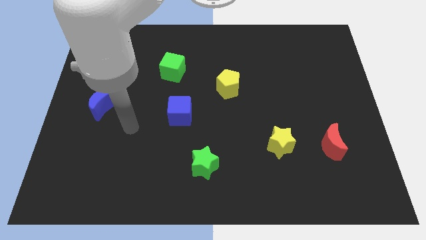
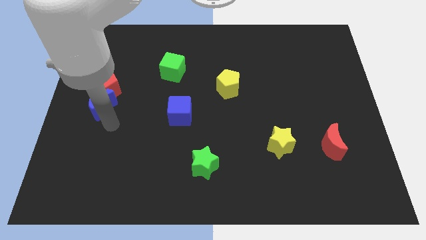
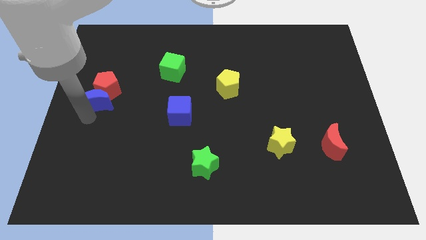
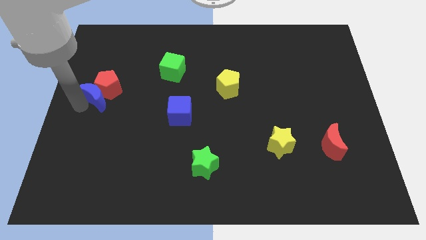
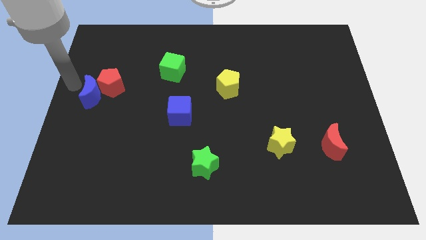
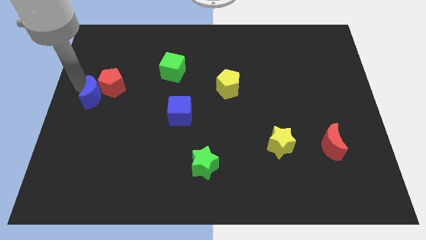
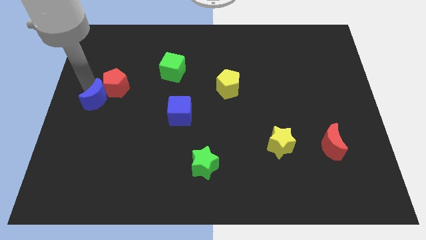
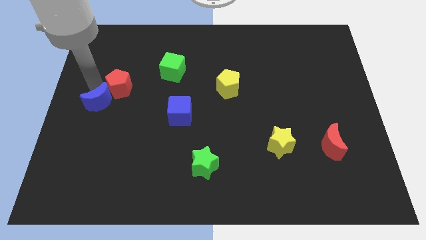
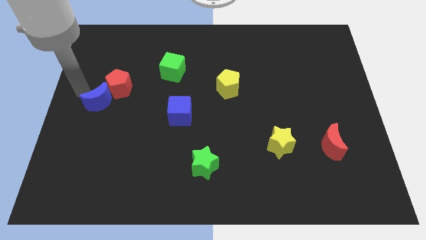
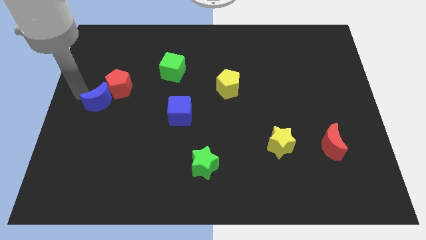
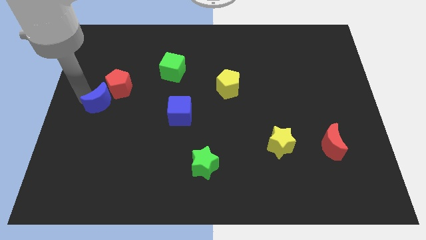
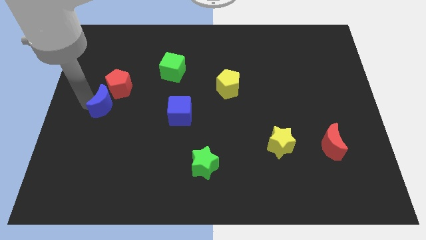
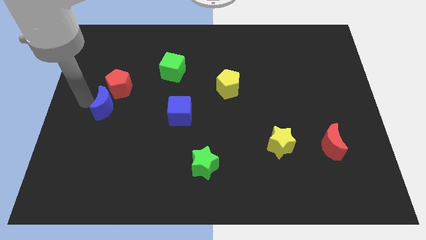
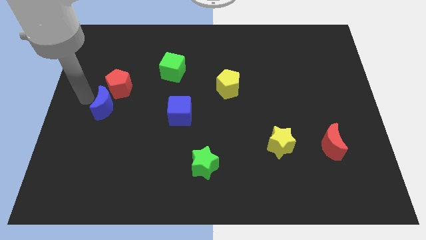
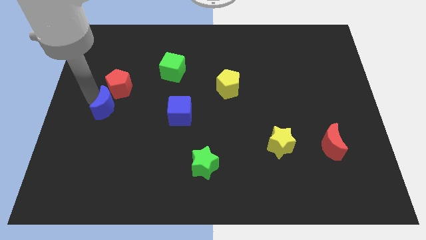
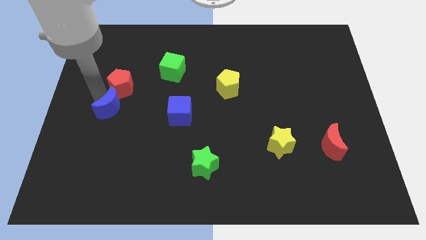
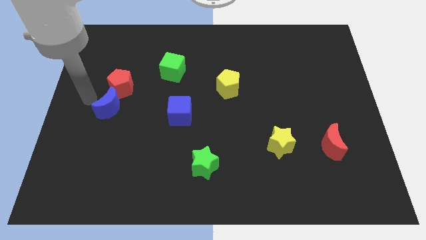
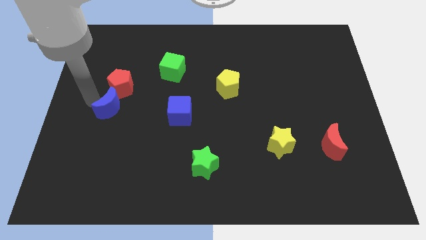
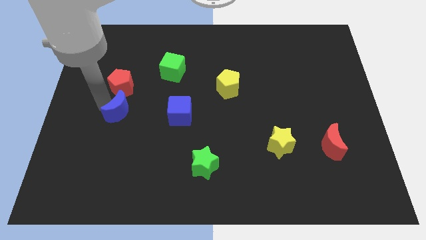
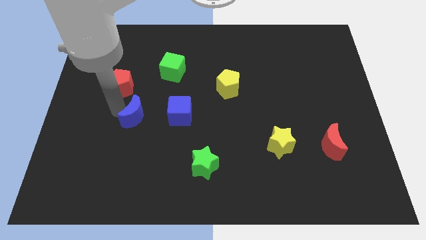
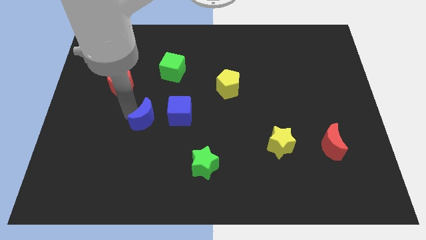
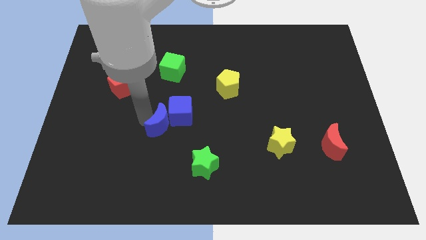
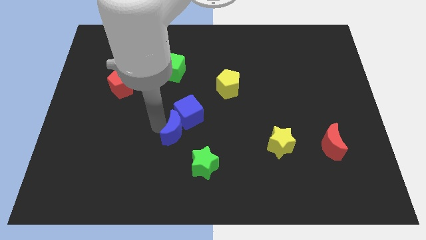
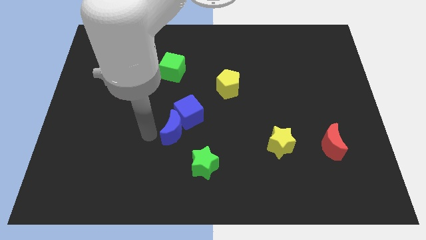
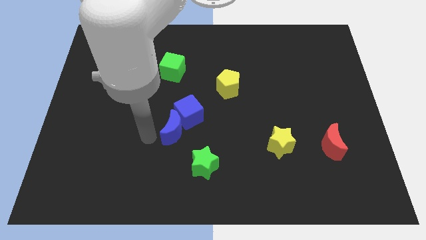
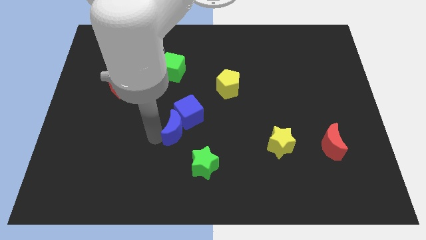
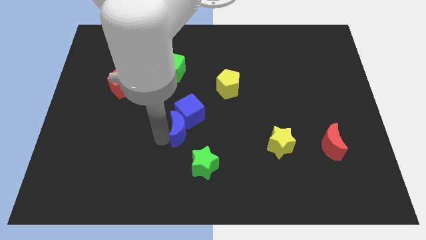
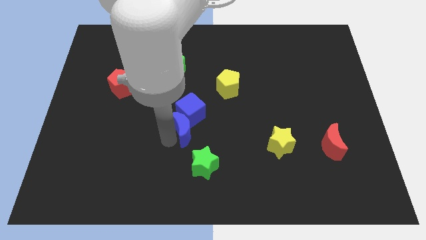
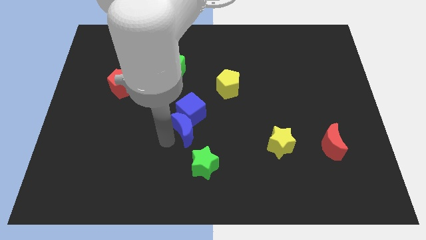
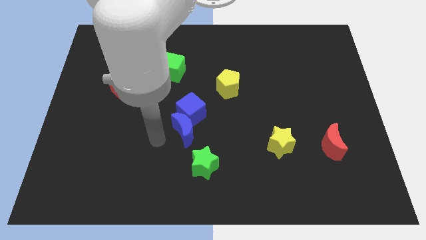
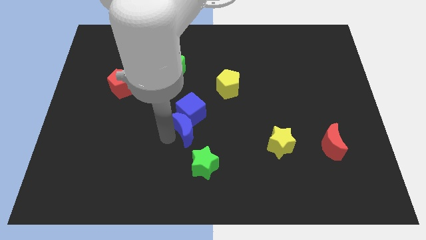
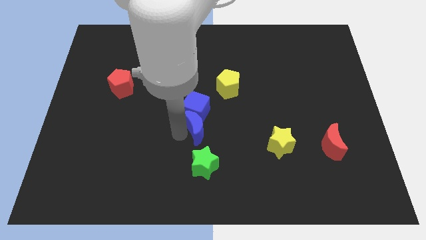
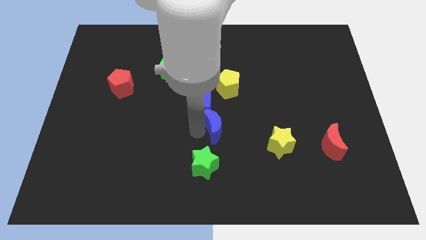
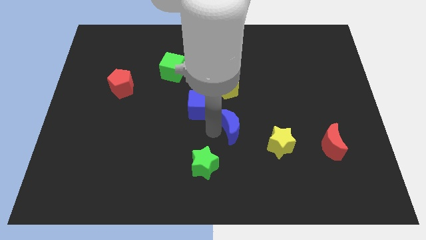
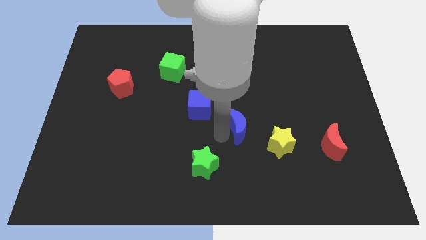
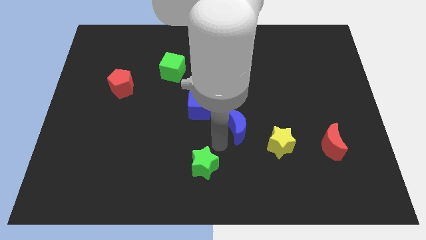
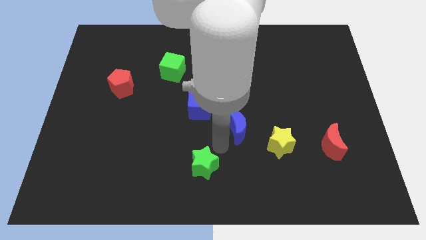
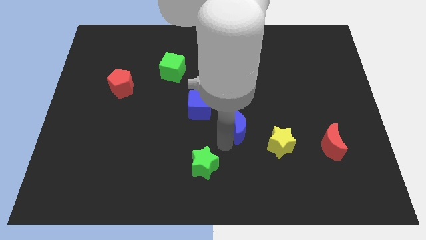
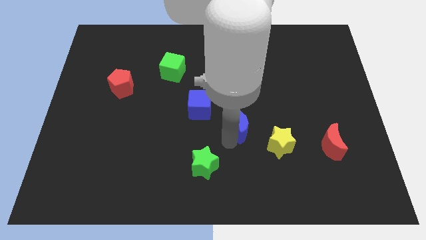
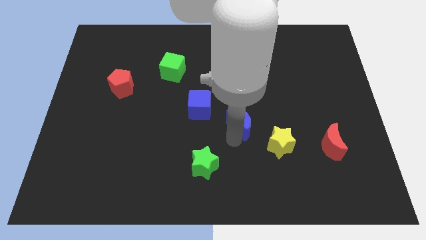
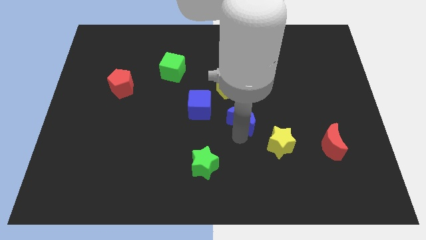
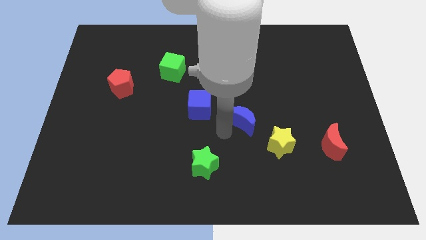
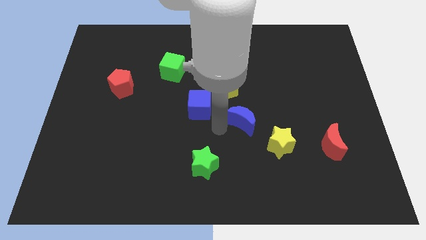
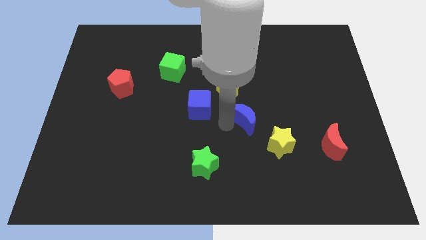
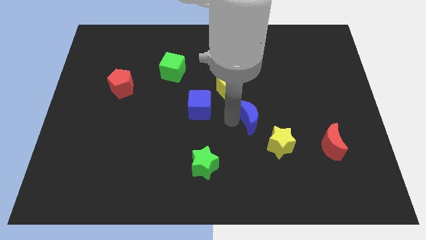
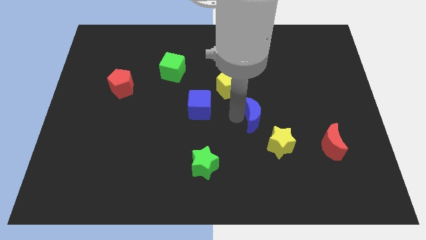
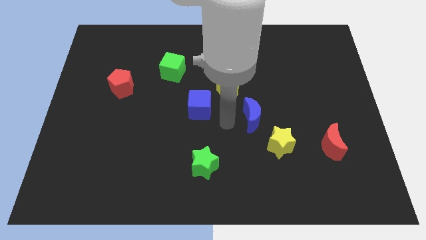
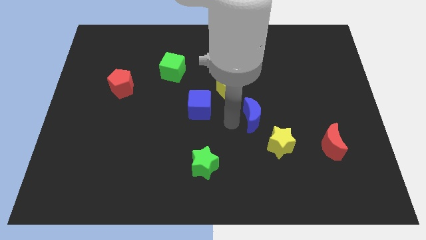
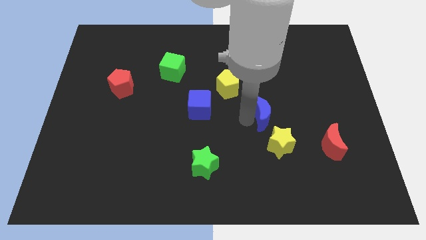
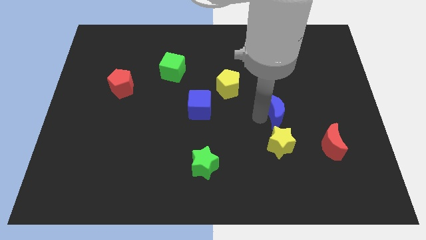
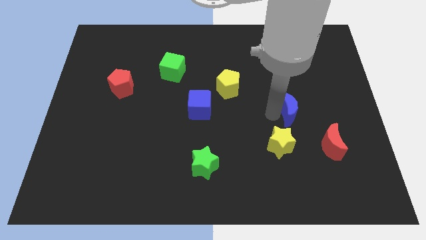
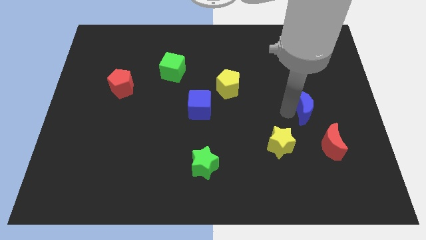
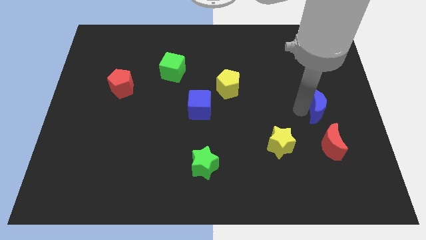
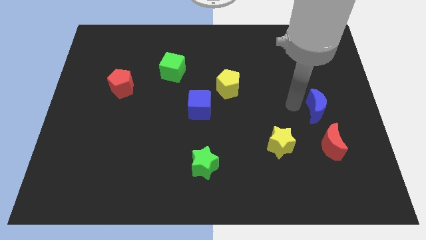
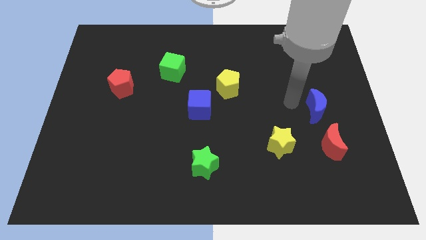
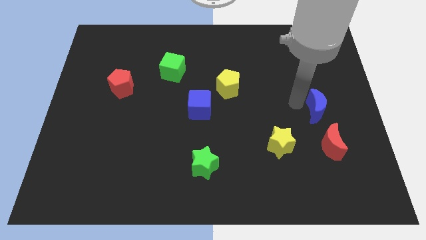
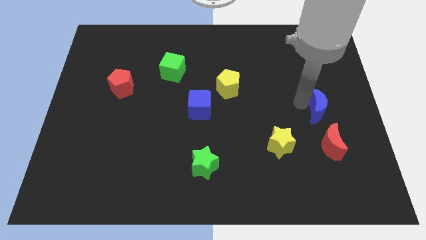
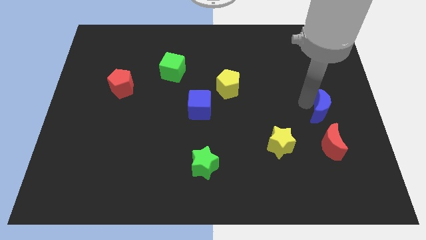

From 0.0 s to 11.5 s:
push the blue moon to the center right
